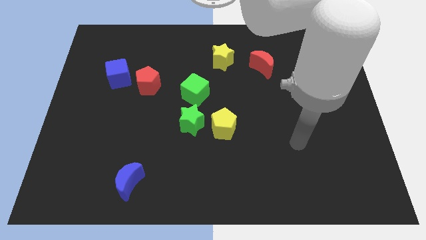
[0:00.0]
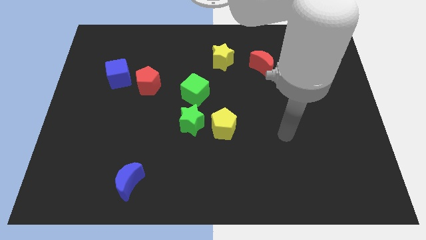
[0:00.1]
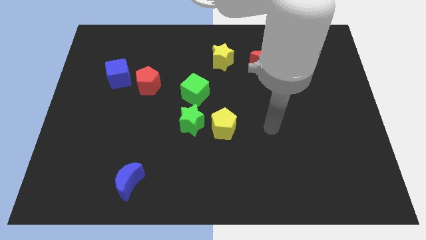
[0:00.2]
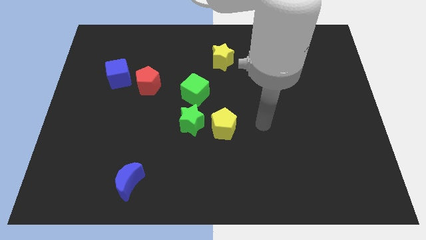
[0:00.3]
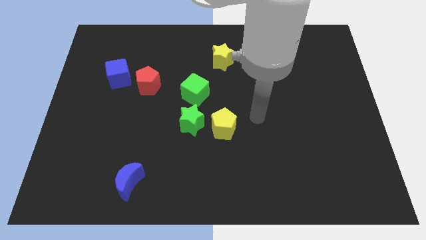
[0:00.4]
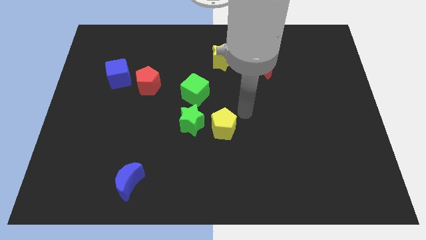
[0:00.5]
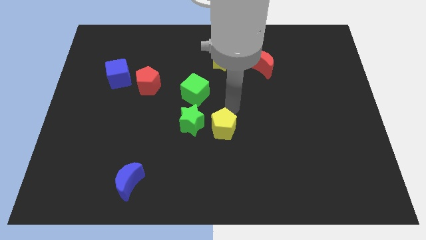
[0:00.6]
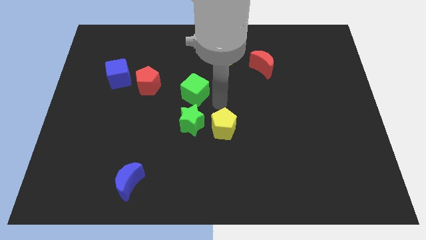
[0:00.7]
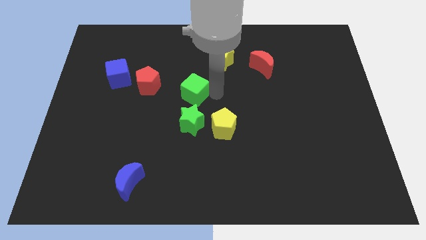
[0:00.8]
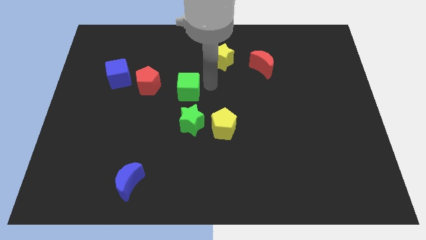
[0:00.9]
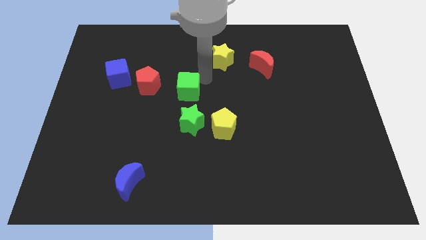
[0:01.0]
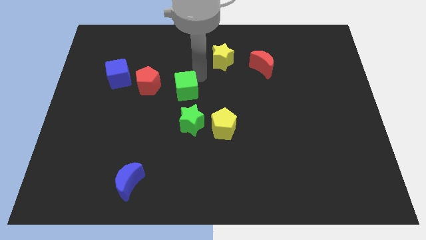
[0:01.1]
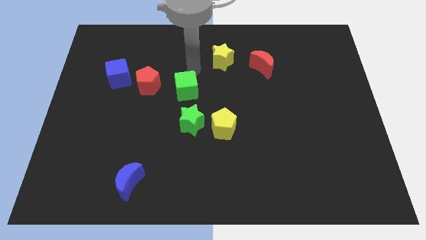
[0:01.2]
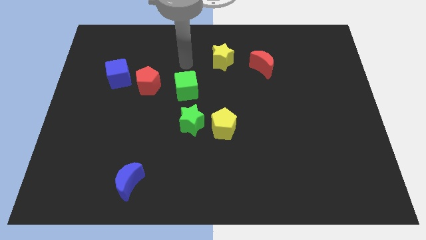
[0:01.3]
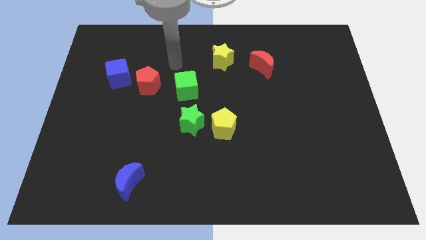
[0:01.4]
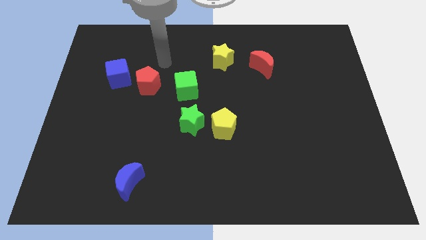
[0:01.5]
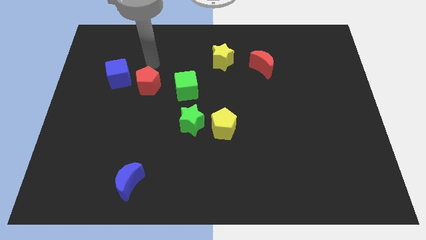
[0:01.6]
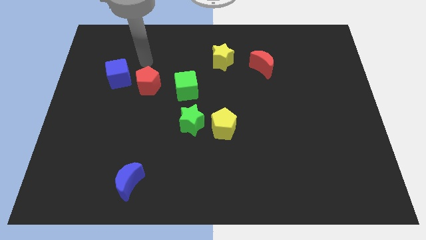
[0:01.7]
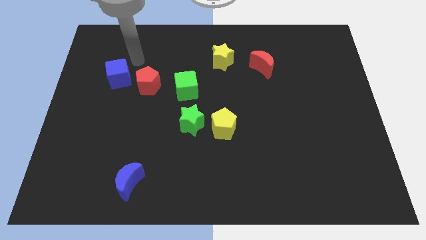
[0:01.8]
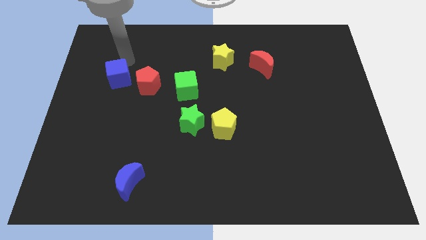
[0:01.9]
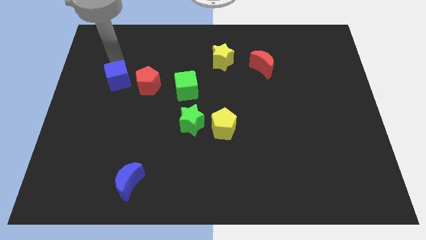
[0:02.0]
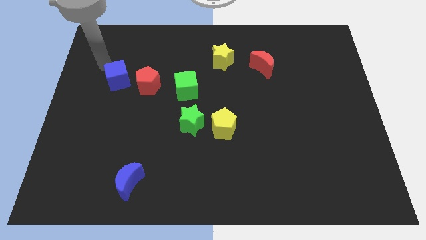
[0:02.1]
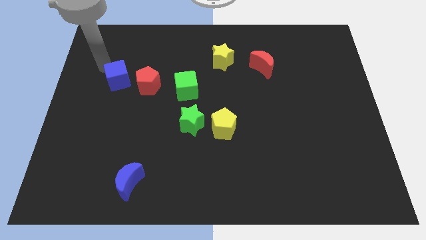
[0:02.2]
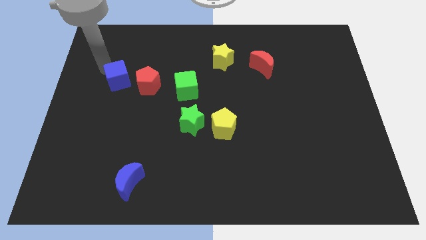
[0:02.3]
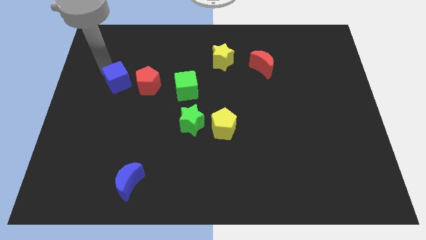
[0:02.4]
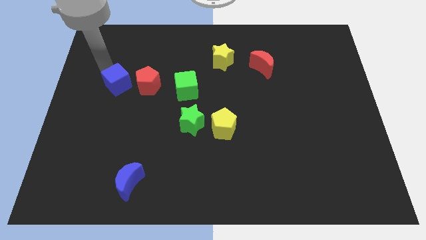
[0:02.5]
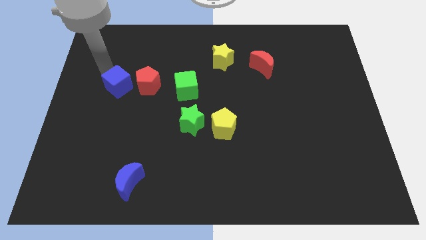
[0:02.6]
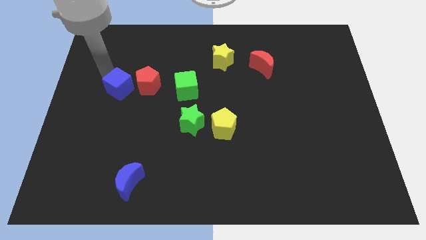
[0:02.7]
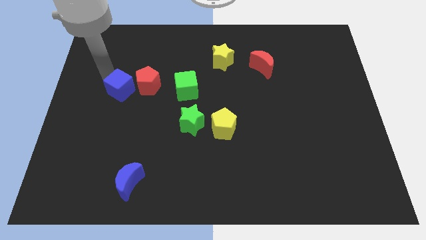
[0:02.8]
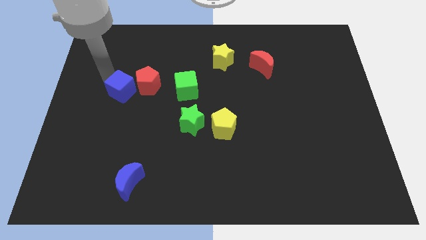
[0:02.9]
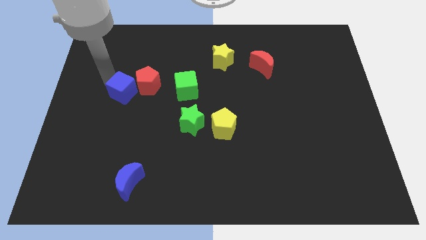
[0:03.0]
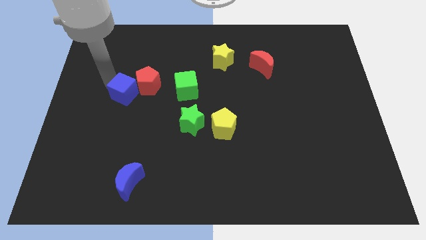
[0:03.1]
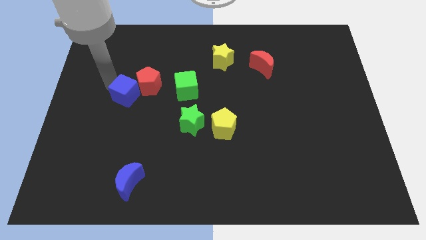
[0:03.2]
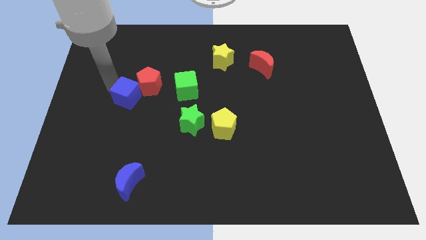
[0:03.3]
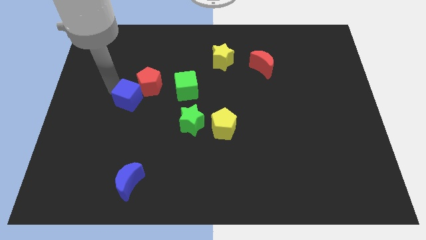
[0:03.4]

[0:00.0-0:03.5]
push the blue cube downwards and right somewhat

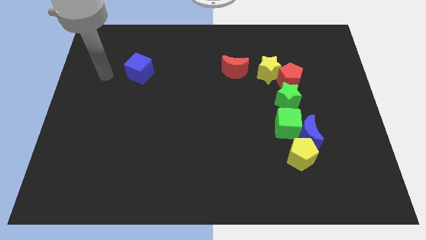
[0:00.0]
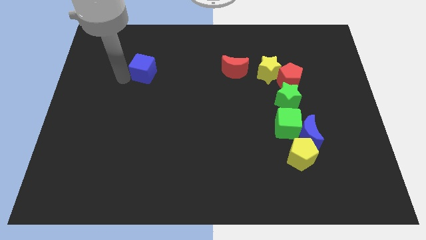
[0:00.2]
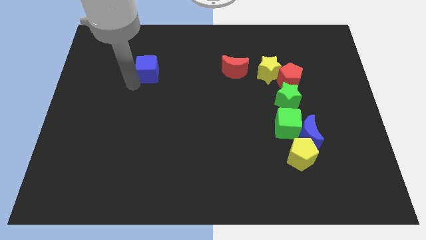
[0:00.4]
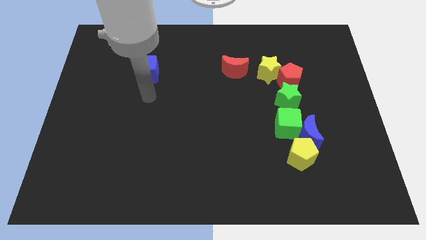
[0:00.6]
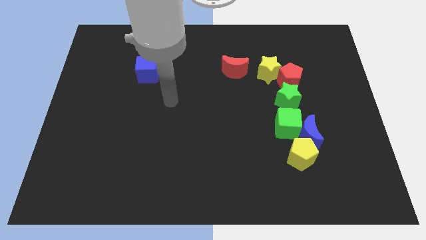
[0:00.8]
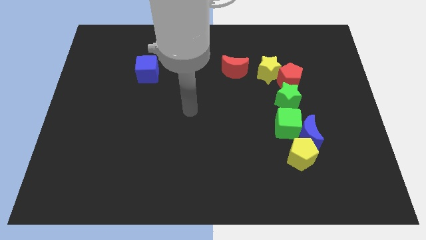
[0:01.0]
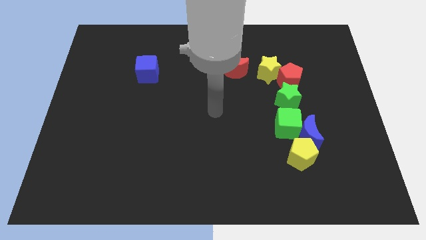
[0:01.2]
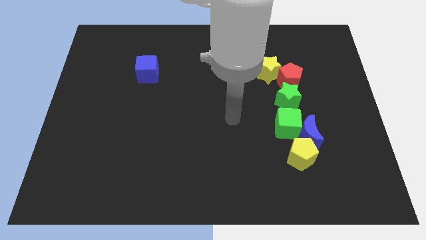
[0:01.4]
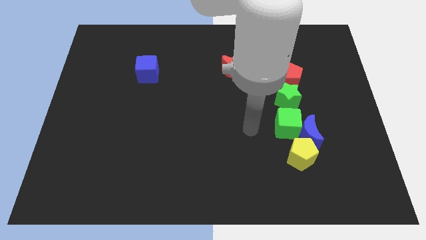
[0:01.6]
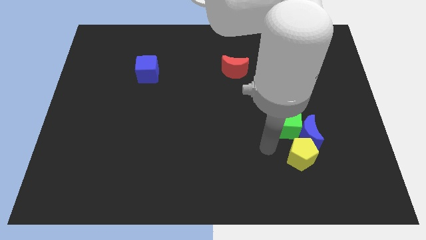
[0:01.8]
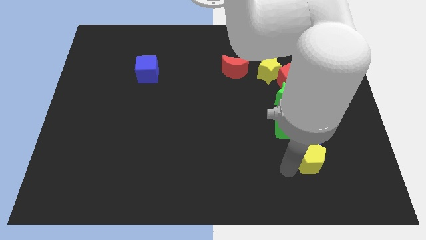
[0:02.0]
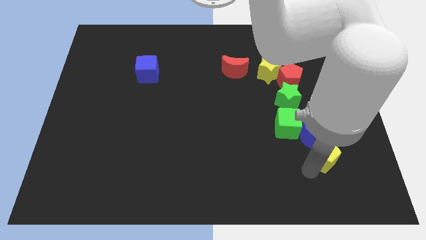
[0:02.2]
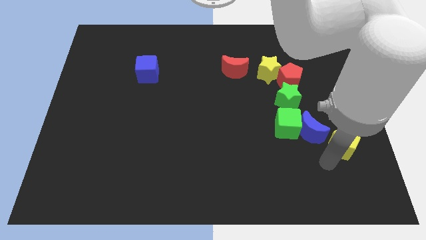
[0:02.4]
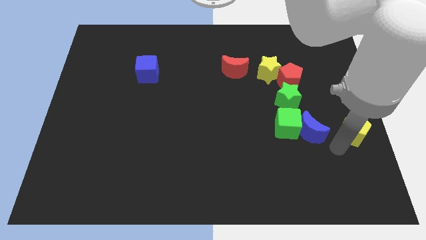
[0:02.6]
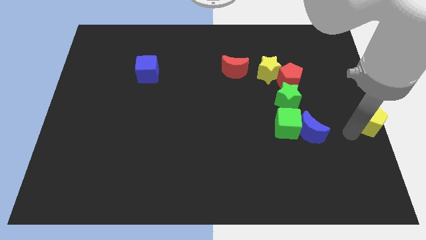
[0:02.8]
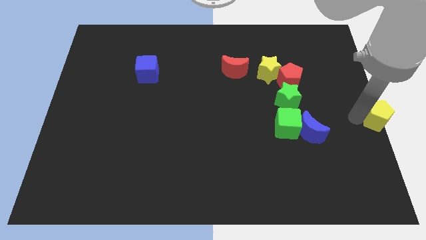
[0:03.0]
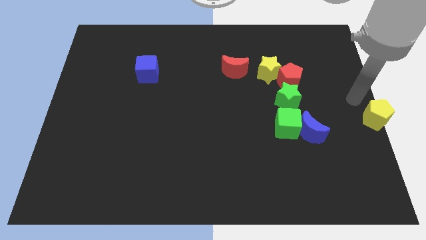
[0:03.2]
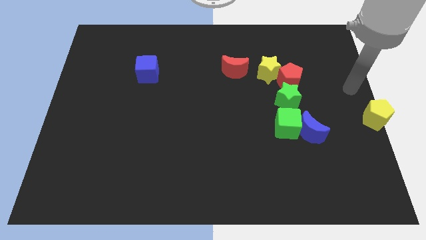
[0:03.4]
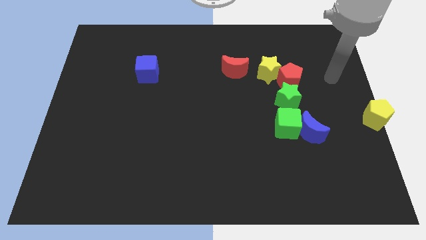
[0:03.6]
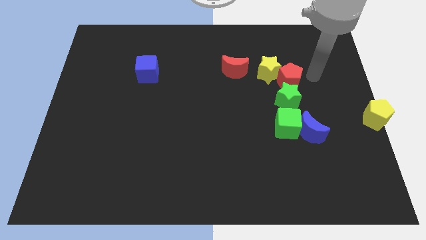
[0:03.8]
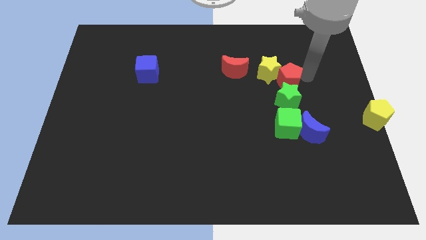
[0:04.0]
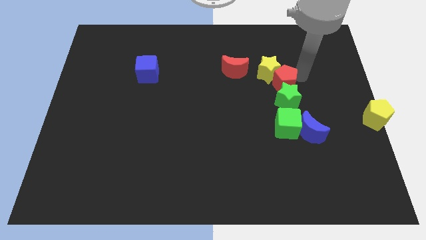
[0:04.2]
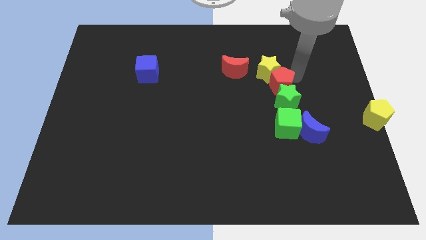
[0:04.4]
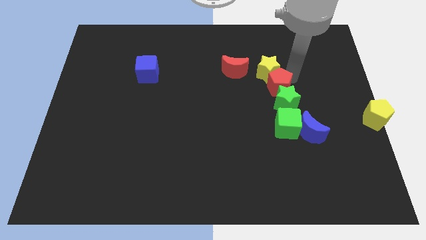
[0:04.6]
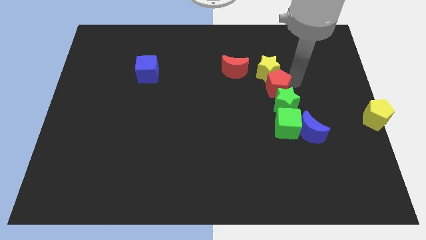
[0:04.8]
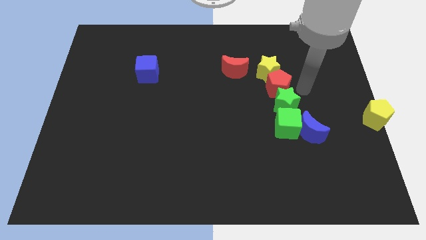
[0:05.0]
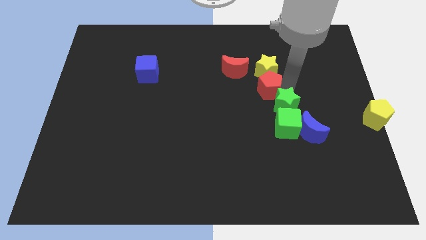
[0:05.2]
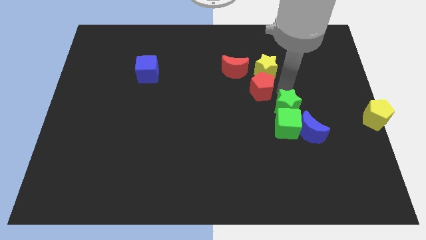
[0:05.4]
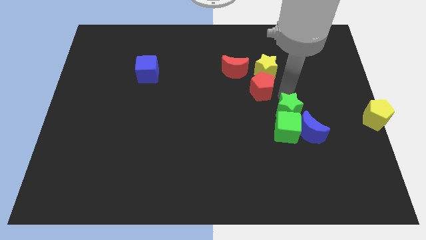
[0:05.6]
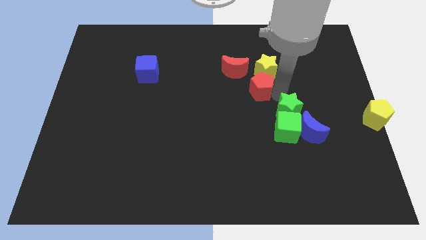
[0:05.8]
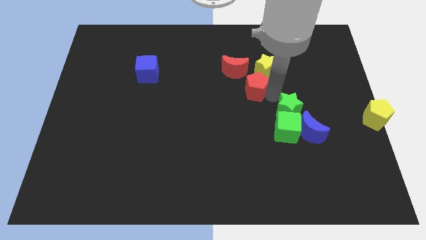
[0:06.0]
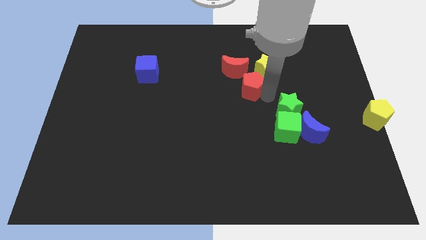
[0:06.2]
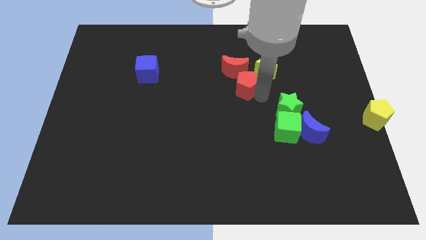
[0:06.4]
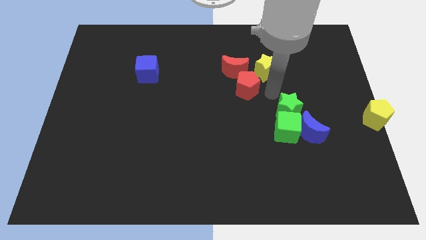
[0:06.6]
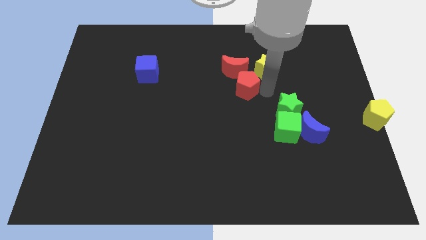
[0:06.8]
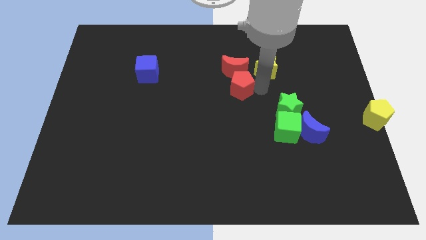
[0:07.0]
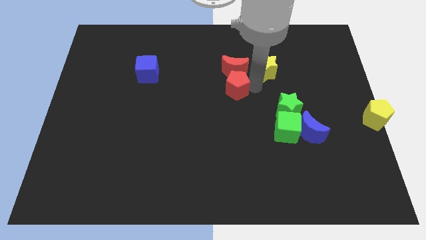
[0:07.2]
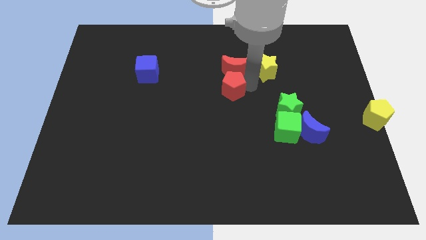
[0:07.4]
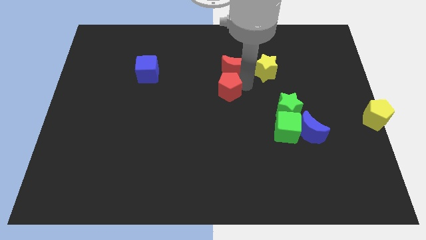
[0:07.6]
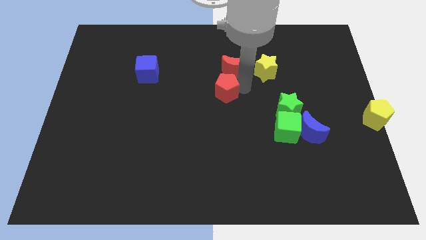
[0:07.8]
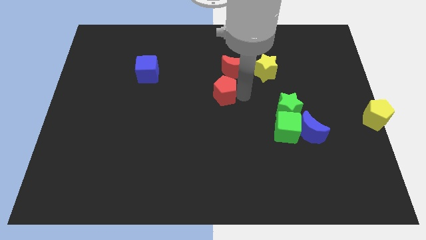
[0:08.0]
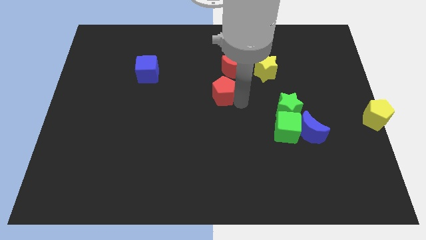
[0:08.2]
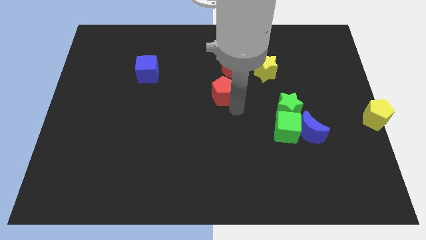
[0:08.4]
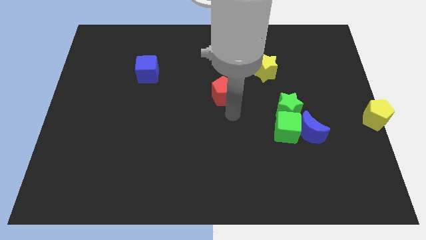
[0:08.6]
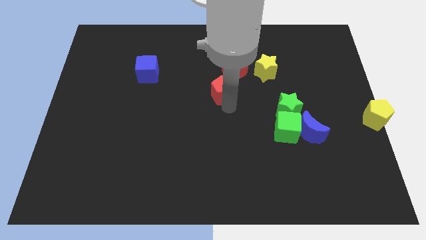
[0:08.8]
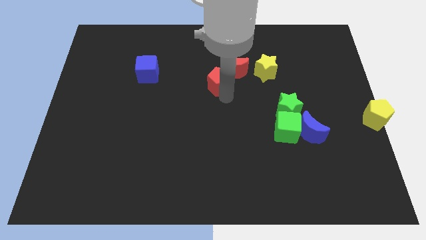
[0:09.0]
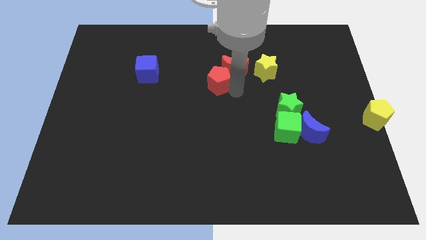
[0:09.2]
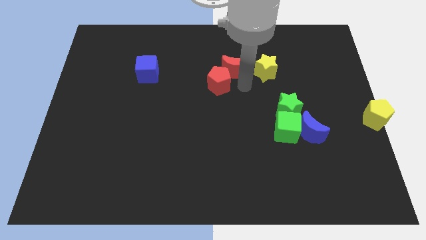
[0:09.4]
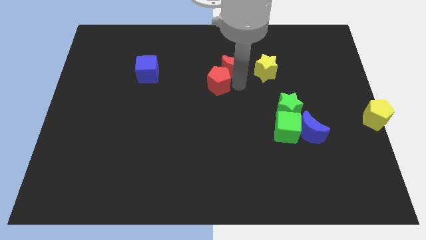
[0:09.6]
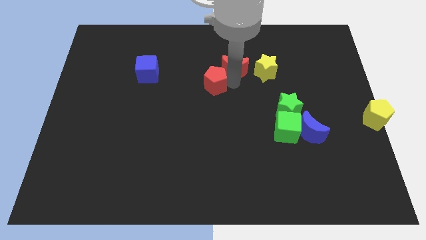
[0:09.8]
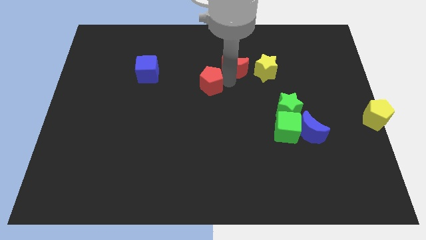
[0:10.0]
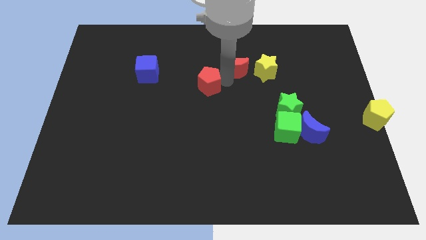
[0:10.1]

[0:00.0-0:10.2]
slide the red pentagon to the left
